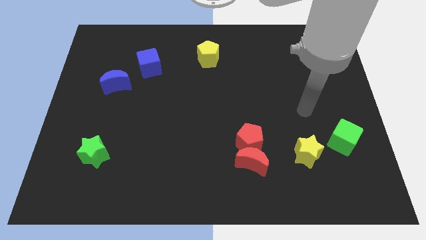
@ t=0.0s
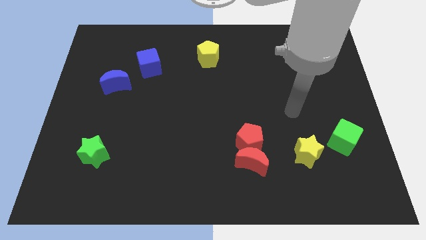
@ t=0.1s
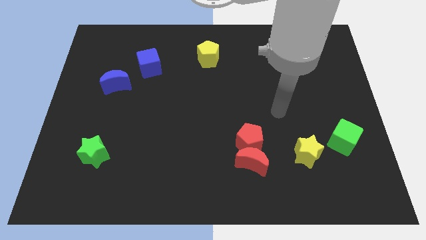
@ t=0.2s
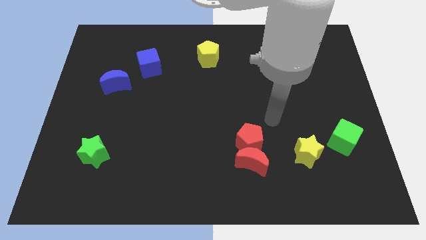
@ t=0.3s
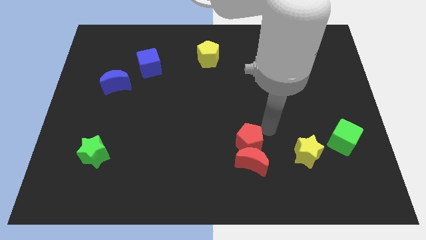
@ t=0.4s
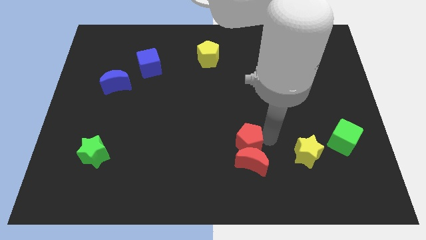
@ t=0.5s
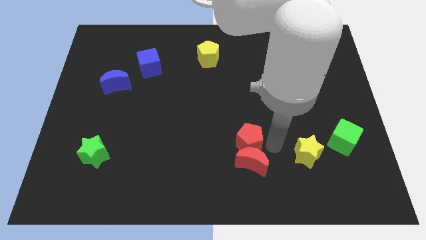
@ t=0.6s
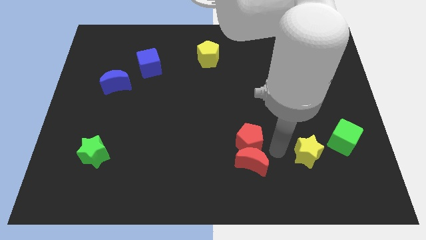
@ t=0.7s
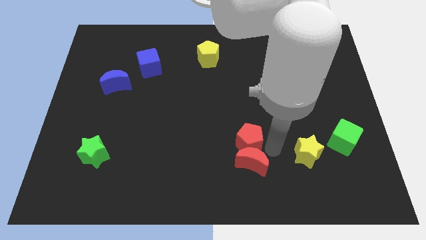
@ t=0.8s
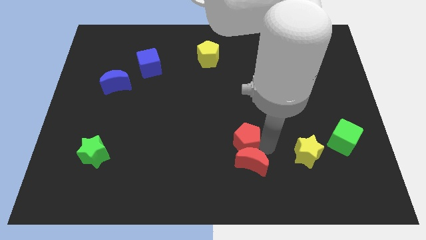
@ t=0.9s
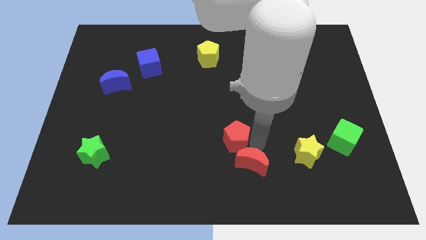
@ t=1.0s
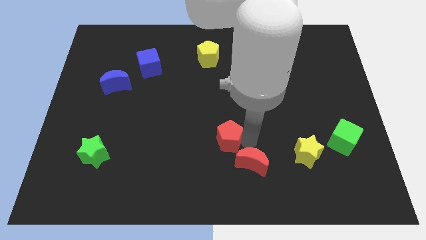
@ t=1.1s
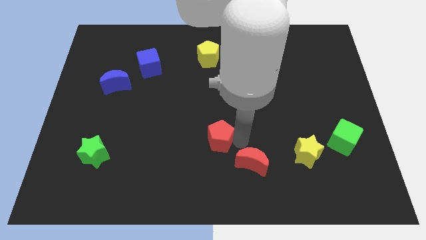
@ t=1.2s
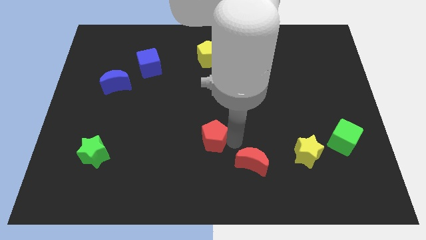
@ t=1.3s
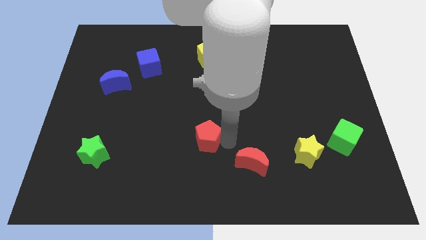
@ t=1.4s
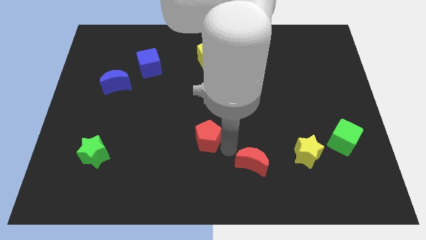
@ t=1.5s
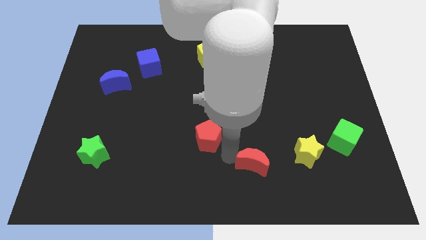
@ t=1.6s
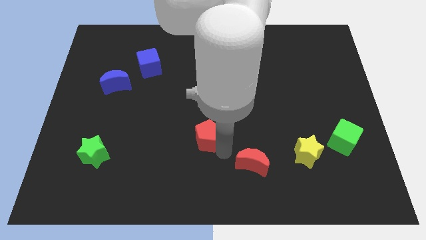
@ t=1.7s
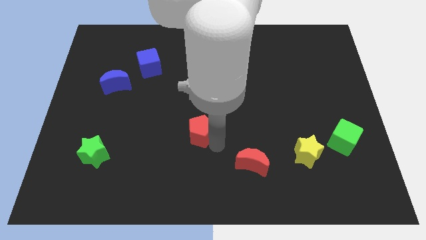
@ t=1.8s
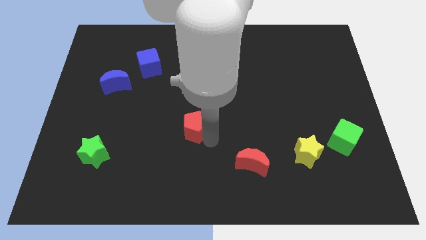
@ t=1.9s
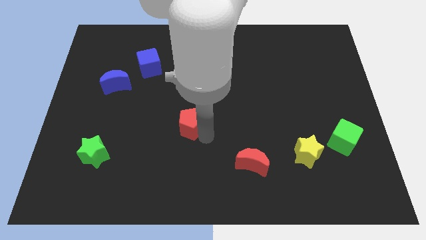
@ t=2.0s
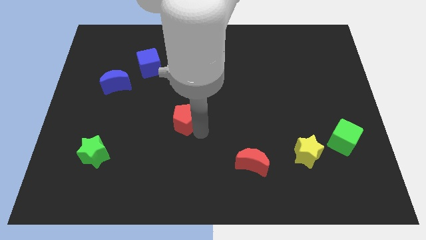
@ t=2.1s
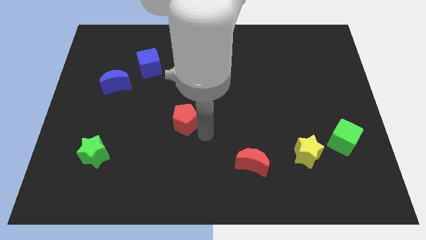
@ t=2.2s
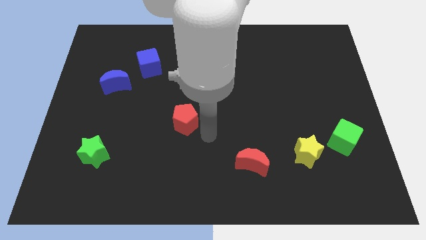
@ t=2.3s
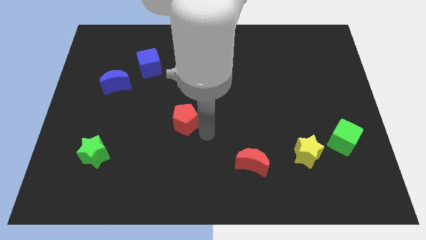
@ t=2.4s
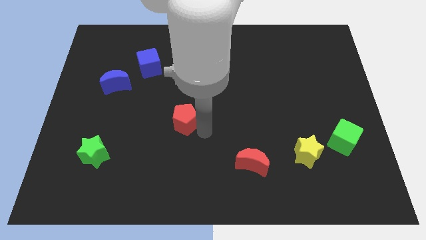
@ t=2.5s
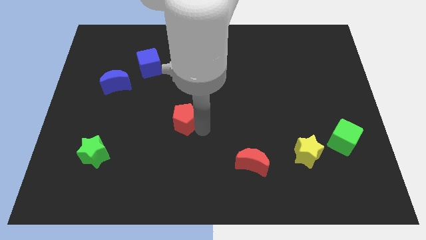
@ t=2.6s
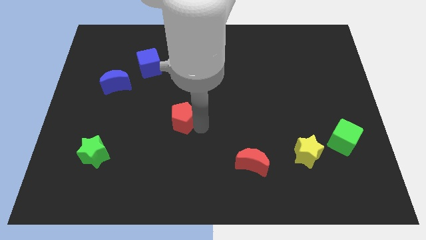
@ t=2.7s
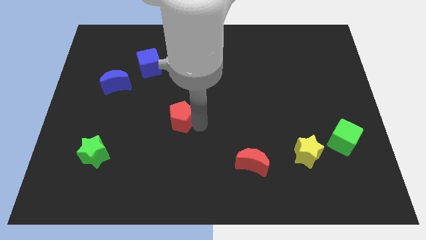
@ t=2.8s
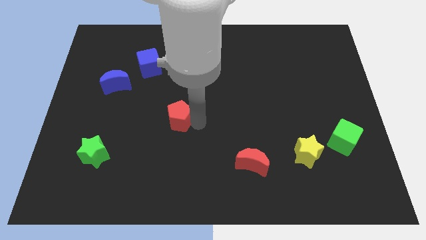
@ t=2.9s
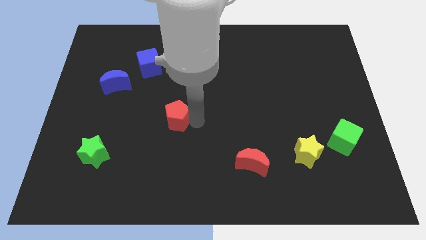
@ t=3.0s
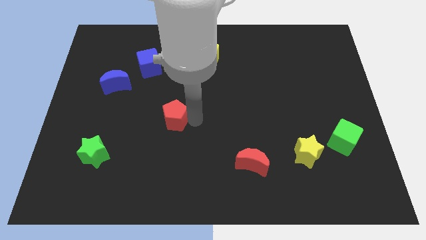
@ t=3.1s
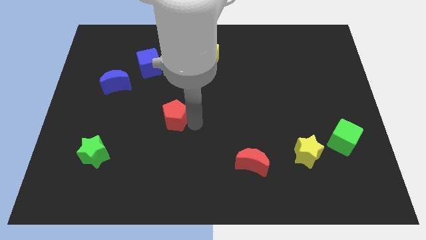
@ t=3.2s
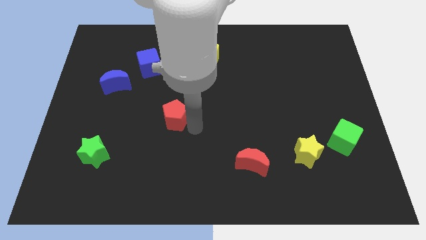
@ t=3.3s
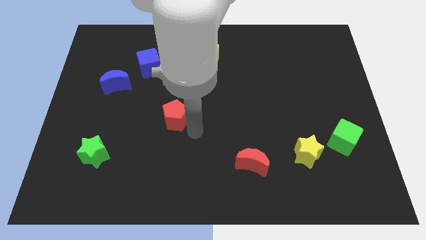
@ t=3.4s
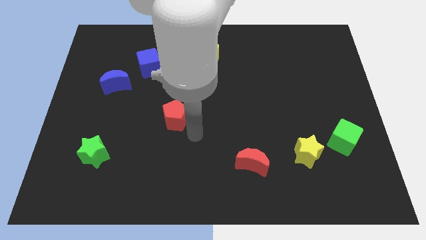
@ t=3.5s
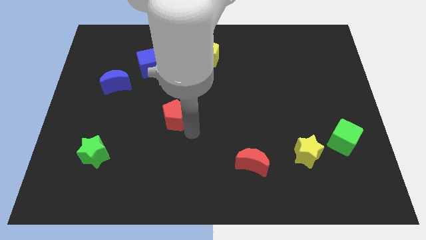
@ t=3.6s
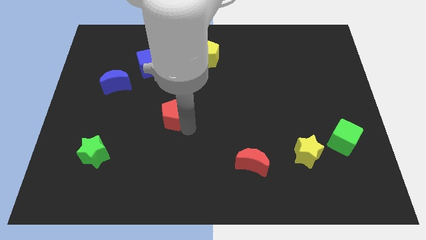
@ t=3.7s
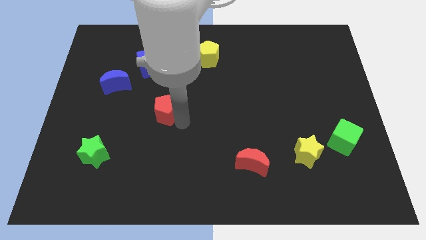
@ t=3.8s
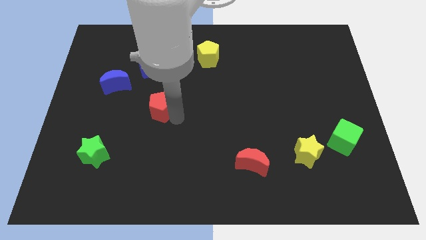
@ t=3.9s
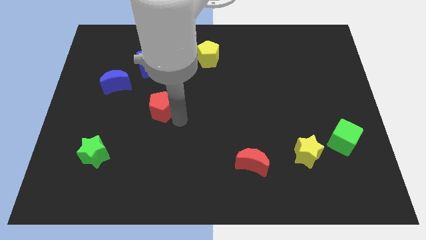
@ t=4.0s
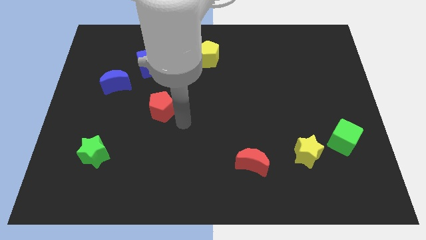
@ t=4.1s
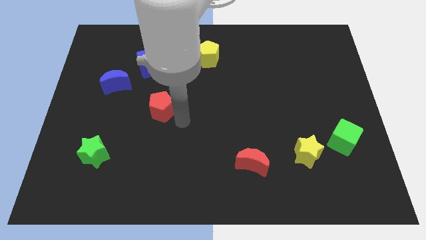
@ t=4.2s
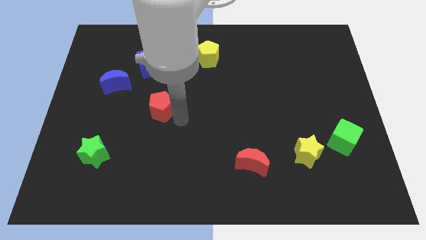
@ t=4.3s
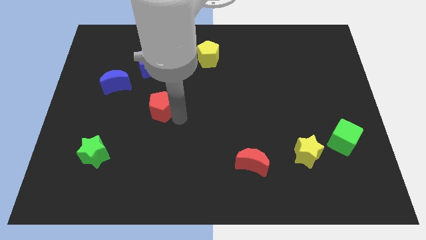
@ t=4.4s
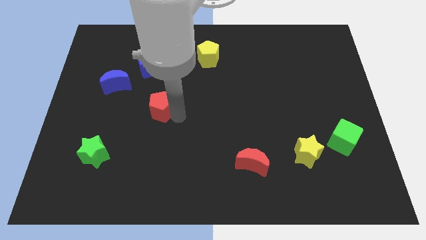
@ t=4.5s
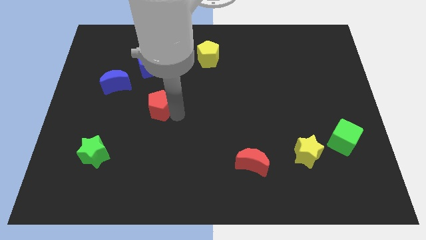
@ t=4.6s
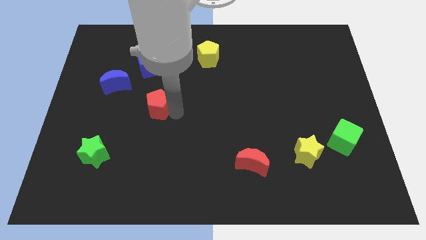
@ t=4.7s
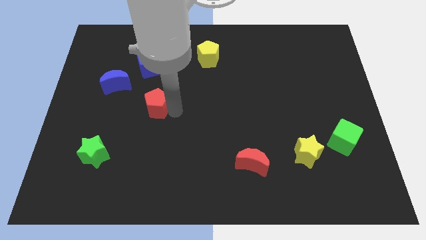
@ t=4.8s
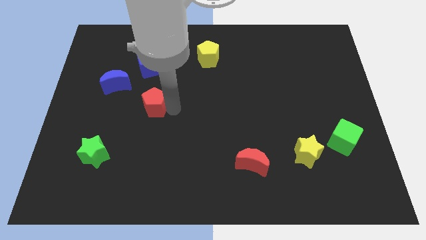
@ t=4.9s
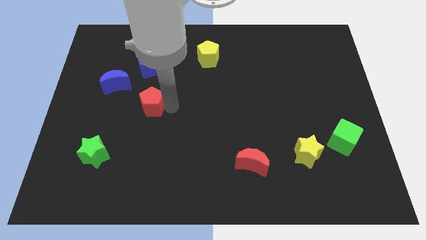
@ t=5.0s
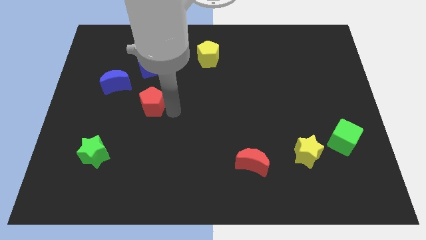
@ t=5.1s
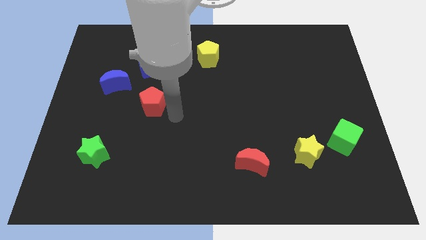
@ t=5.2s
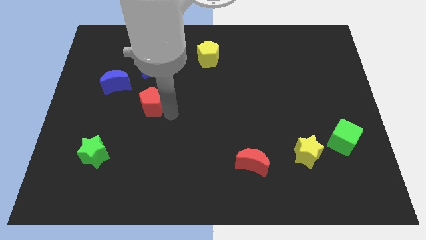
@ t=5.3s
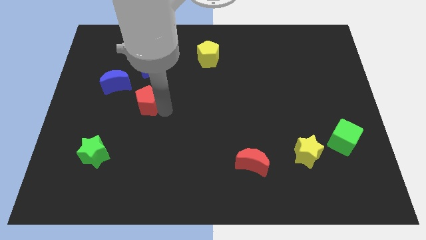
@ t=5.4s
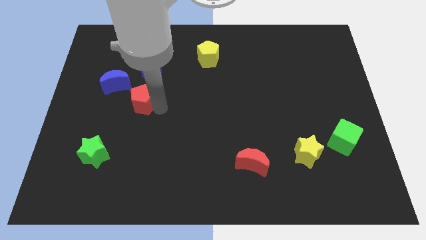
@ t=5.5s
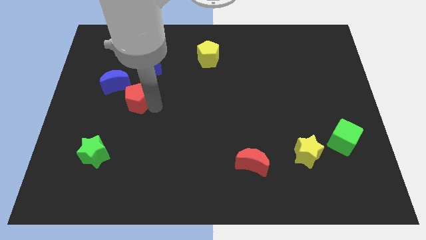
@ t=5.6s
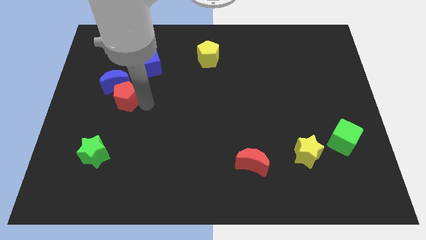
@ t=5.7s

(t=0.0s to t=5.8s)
put the red pentagon next to the blue moon

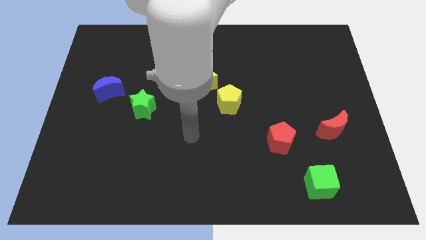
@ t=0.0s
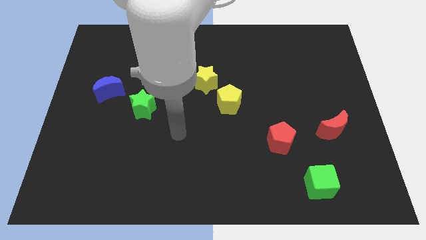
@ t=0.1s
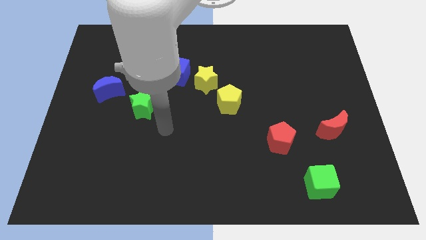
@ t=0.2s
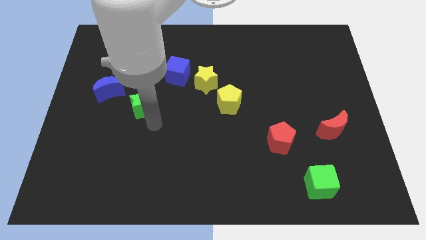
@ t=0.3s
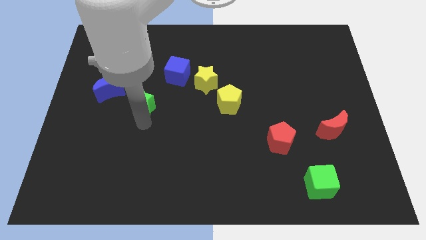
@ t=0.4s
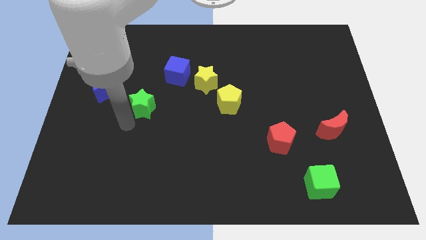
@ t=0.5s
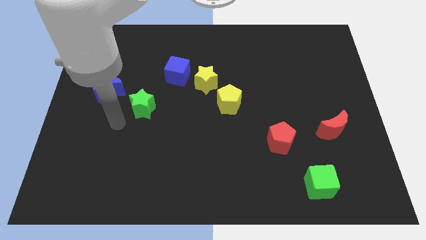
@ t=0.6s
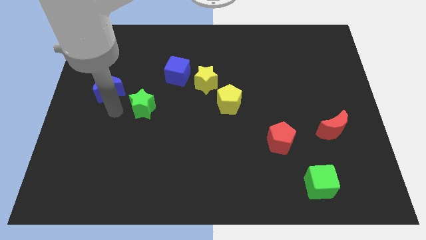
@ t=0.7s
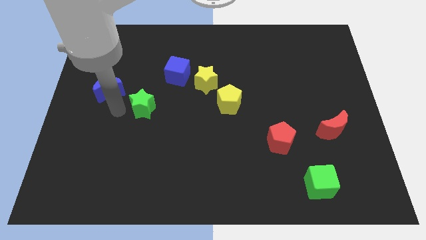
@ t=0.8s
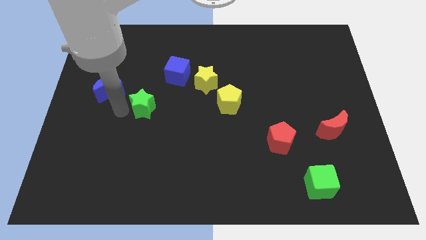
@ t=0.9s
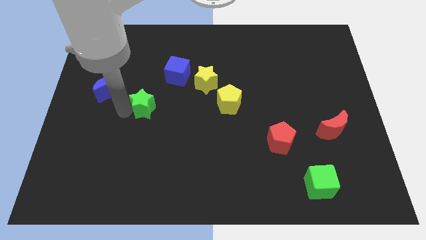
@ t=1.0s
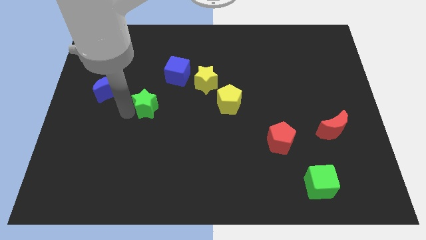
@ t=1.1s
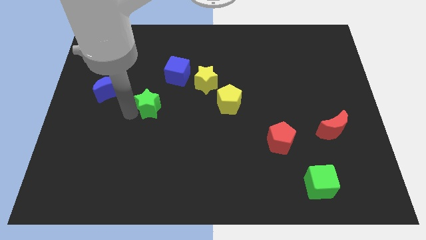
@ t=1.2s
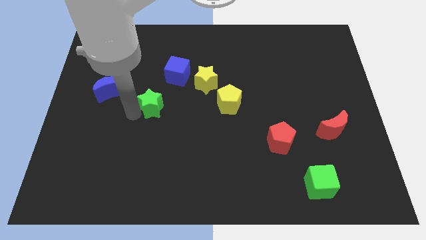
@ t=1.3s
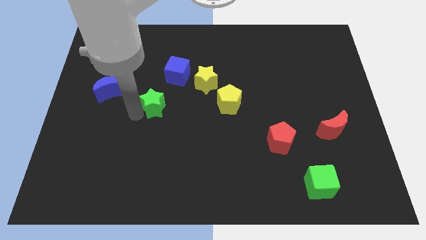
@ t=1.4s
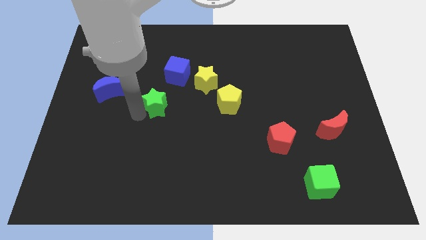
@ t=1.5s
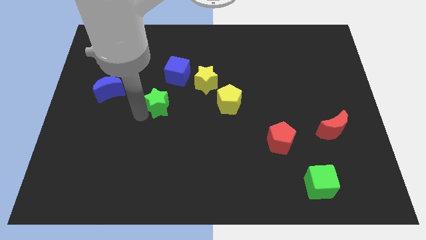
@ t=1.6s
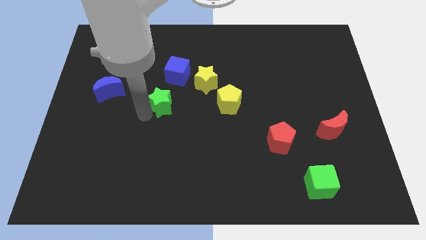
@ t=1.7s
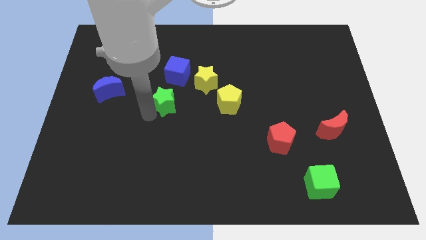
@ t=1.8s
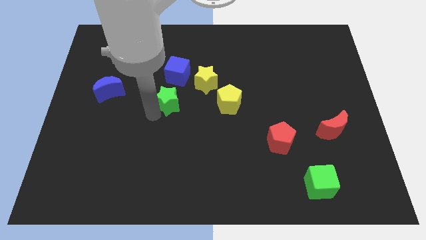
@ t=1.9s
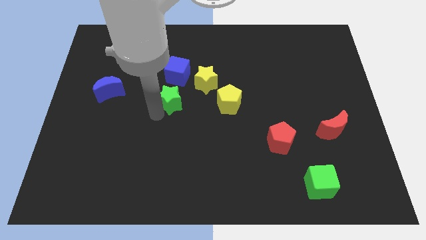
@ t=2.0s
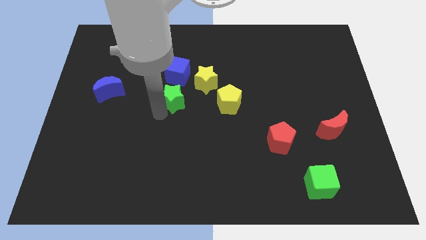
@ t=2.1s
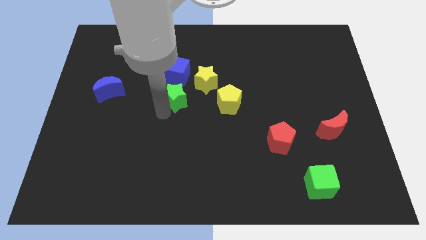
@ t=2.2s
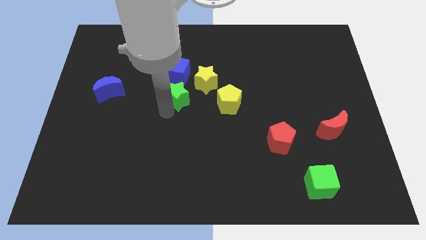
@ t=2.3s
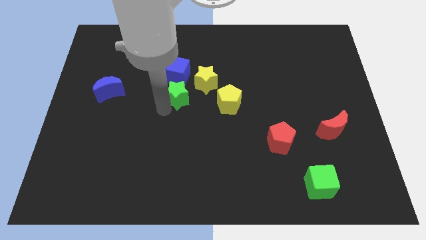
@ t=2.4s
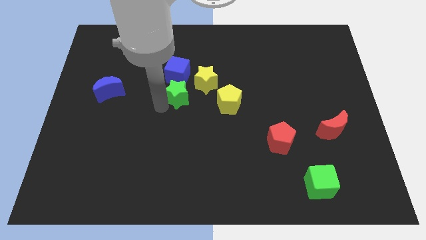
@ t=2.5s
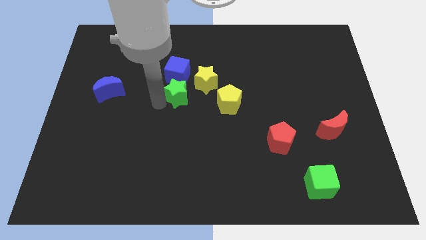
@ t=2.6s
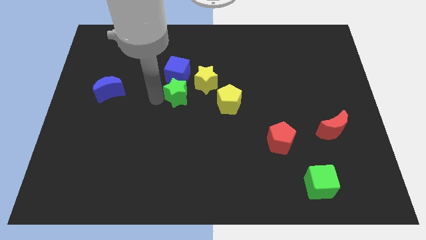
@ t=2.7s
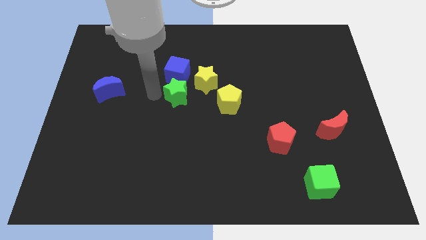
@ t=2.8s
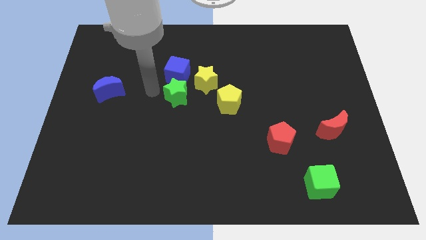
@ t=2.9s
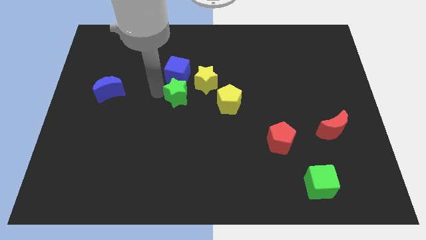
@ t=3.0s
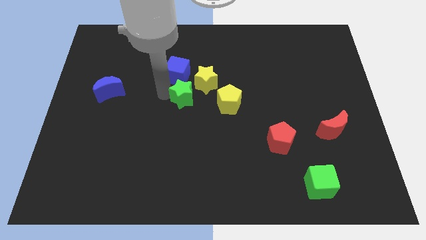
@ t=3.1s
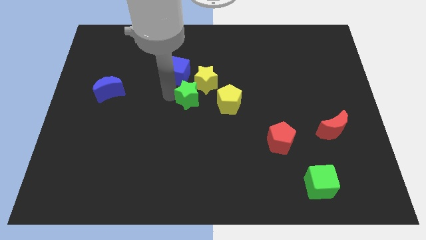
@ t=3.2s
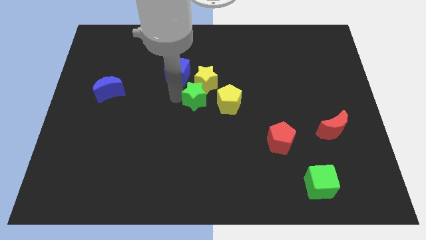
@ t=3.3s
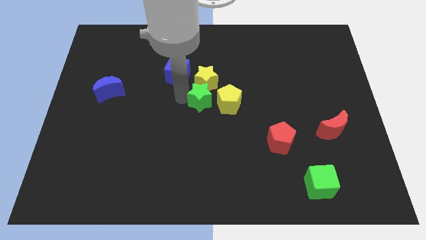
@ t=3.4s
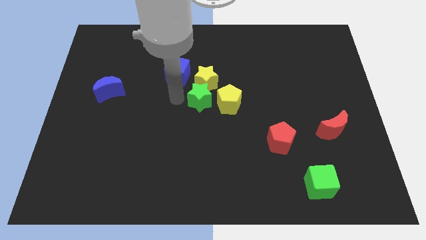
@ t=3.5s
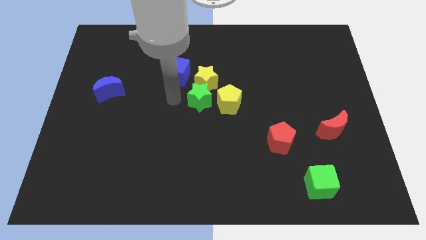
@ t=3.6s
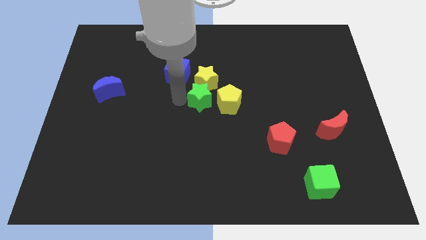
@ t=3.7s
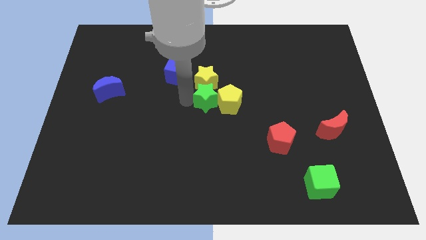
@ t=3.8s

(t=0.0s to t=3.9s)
push the green star close to the yellow pentagon
